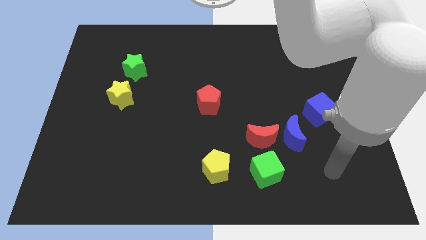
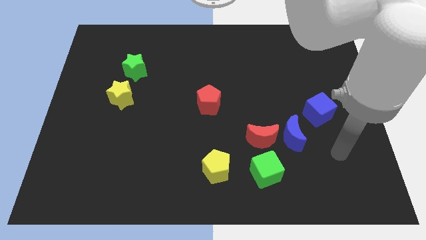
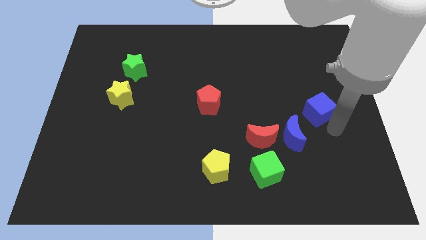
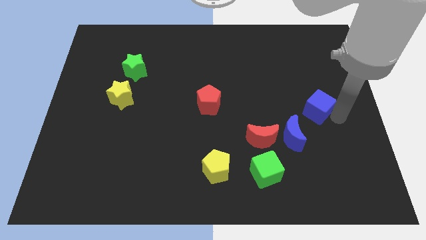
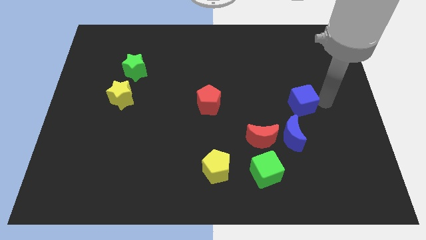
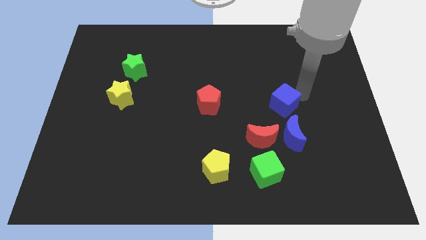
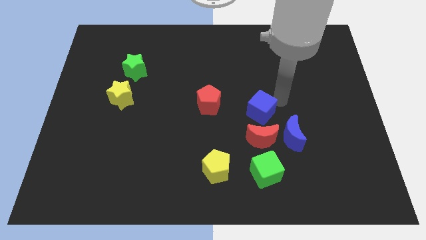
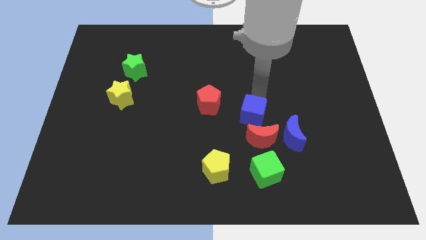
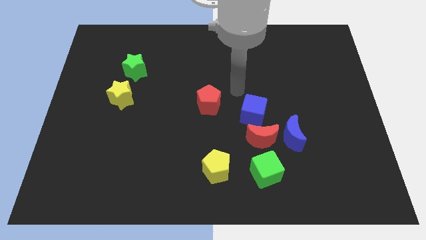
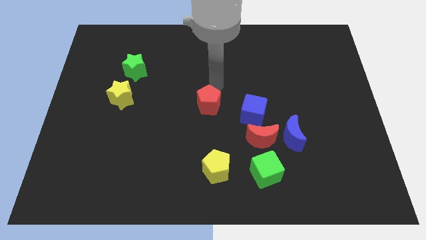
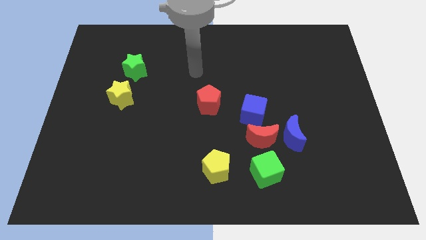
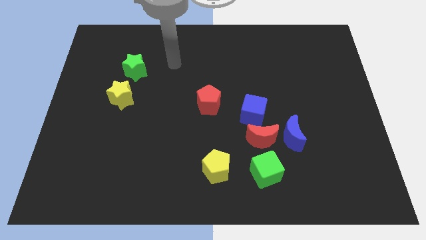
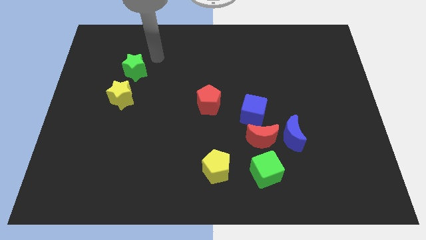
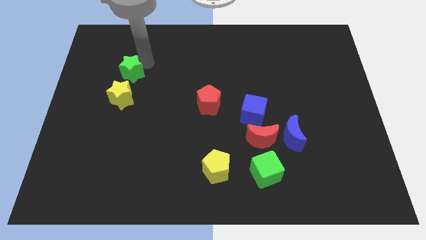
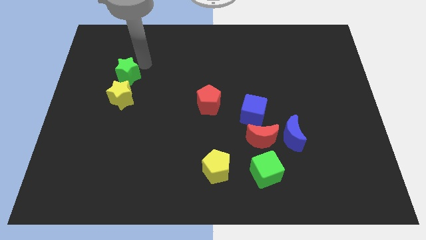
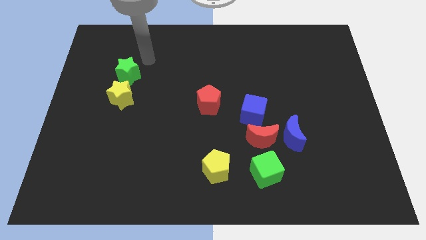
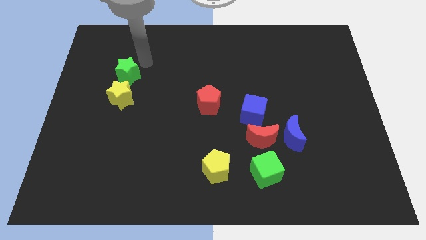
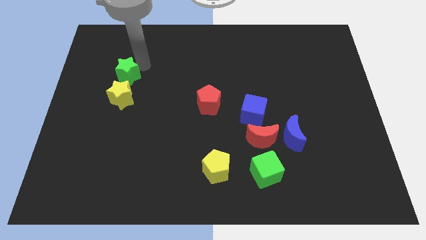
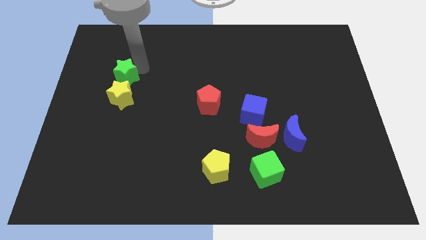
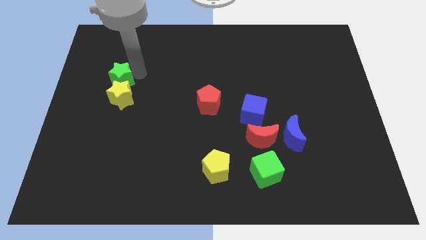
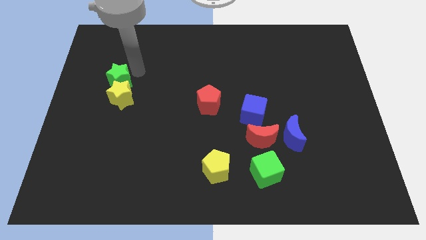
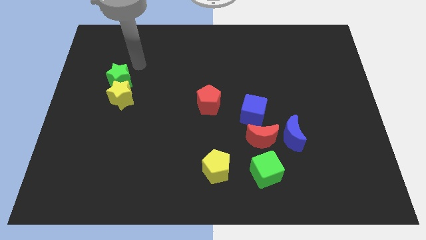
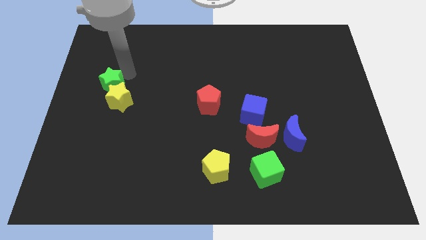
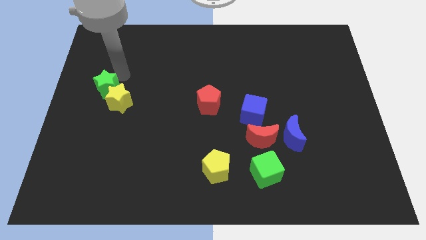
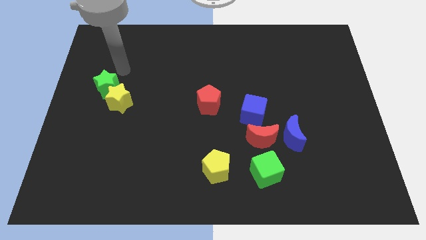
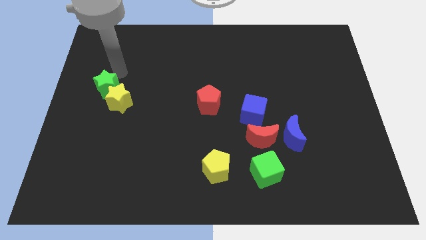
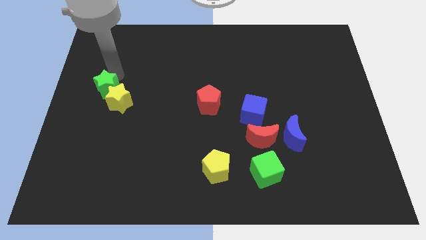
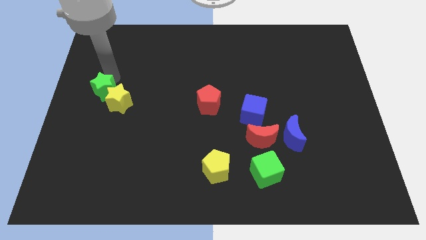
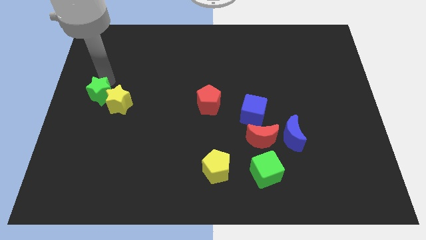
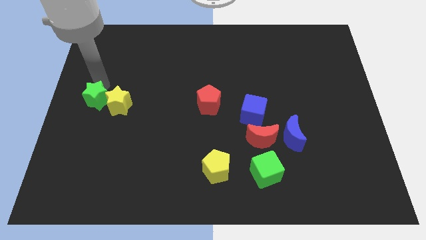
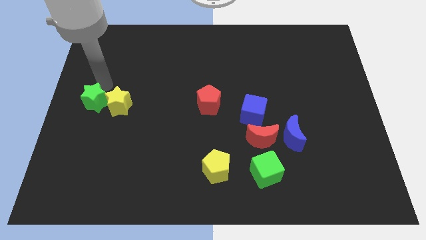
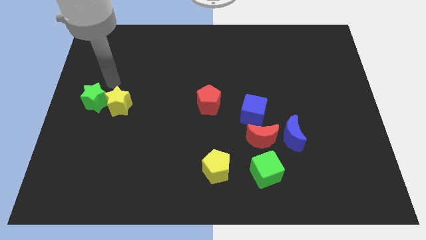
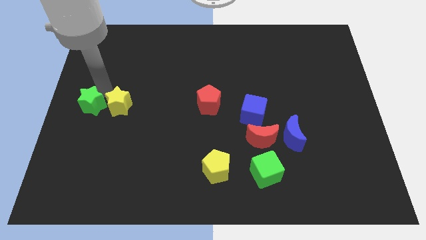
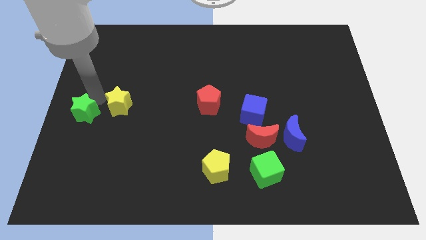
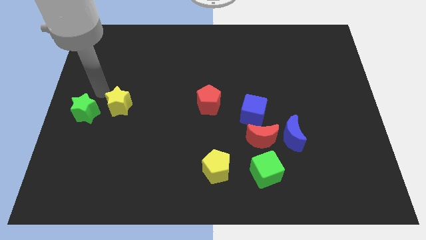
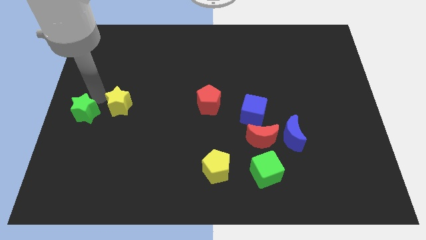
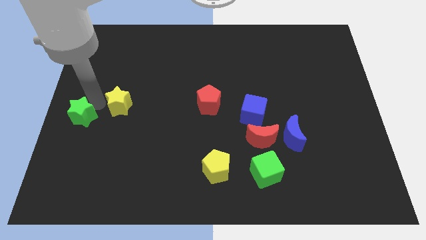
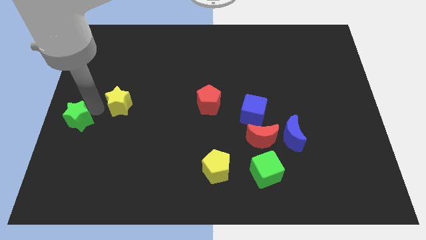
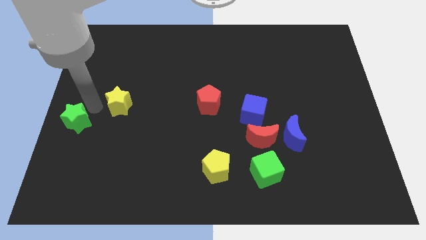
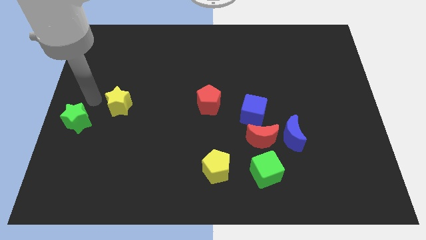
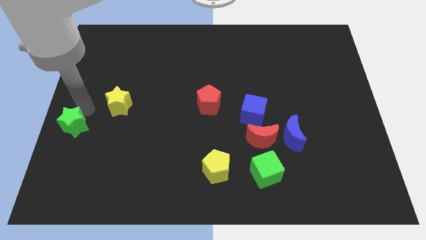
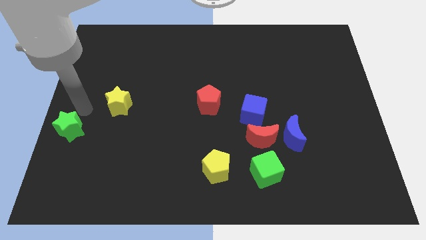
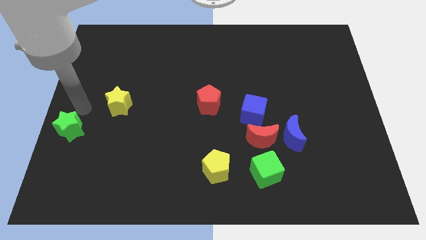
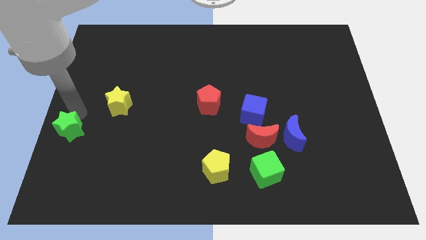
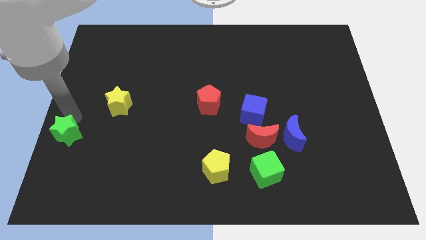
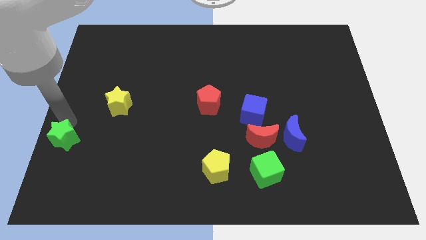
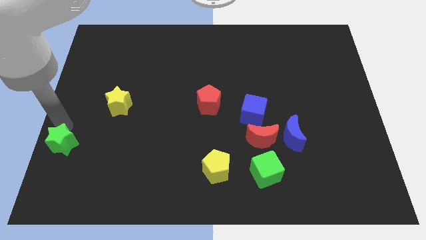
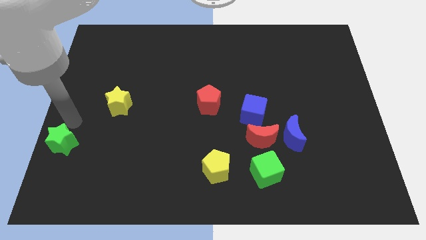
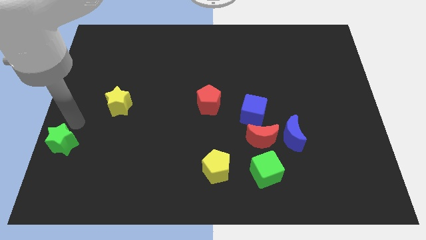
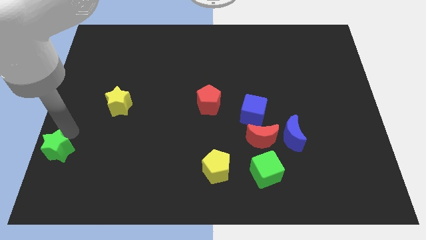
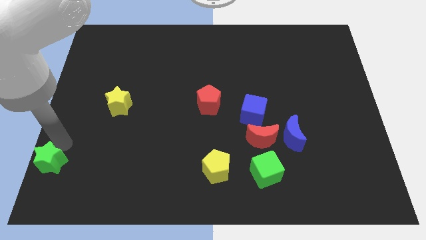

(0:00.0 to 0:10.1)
slide the green star to the lower left corner

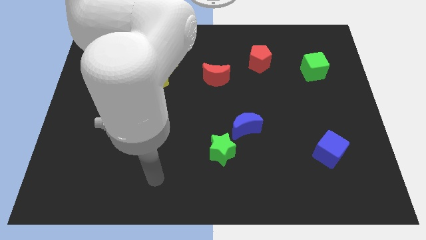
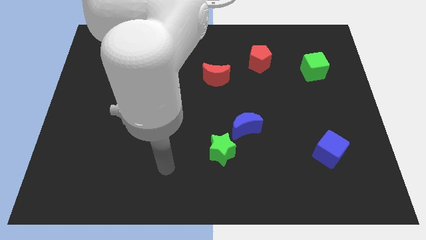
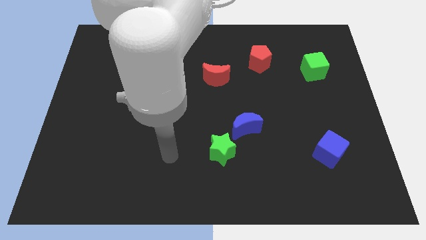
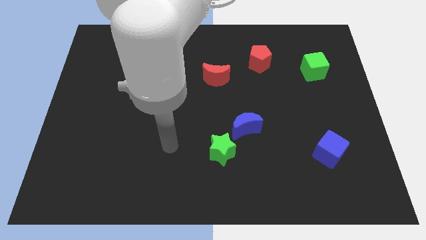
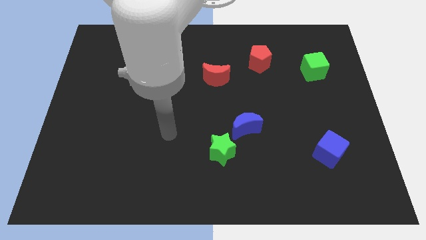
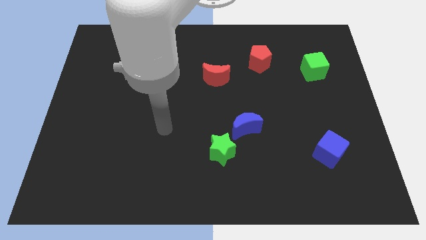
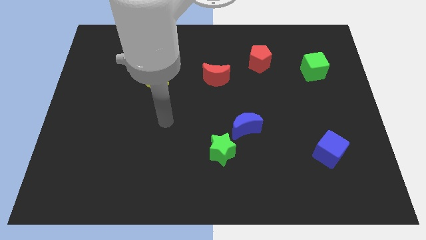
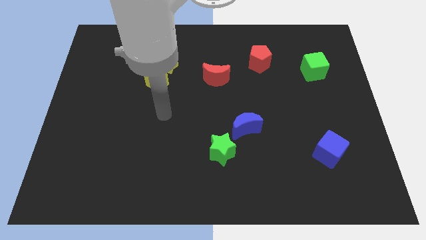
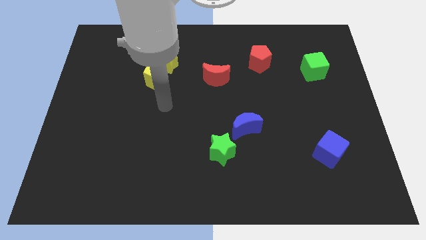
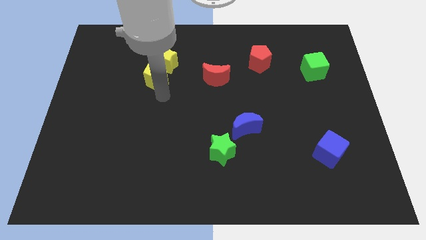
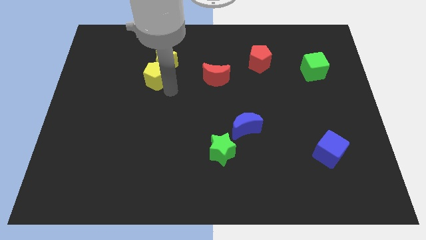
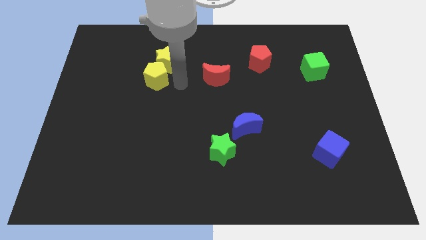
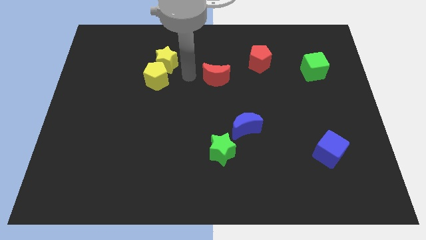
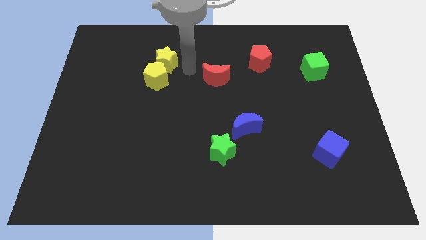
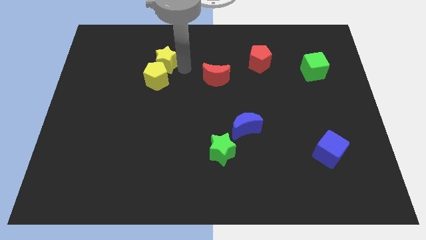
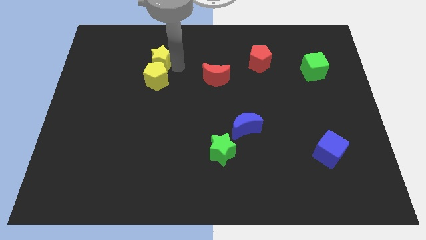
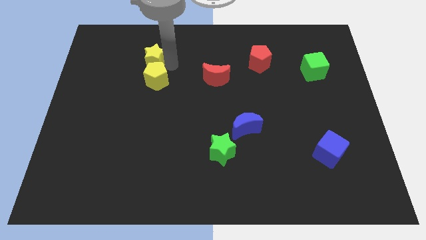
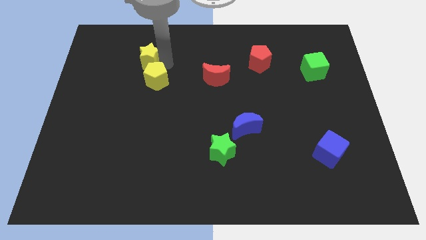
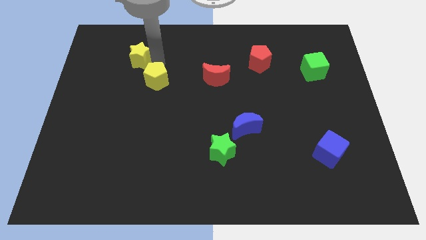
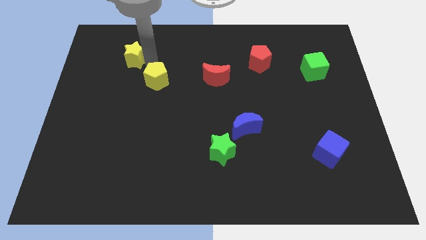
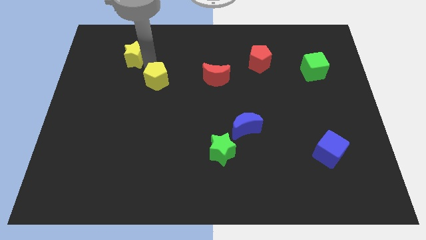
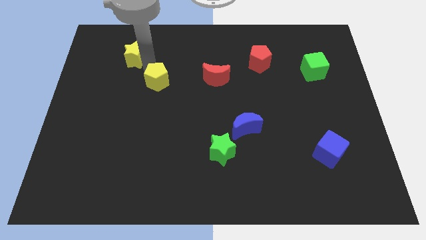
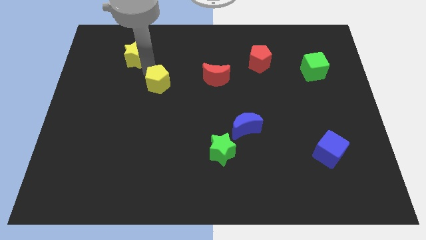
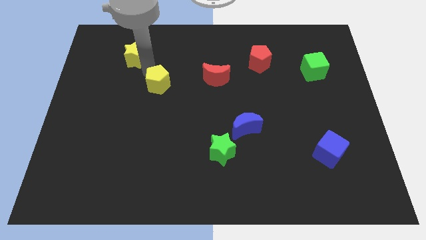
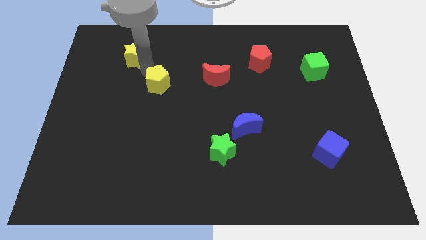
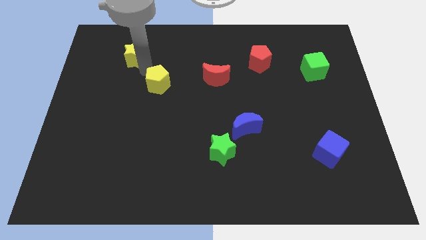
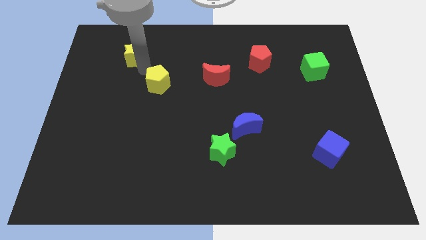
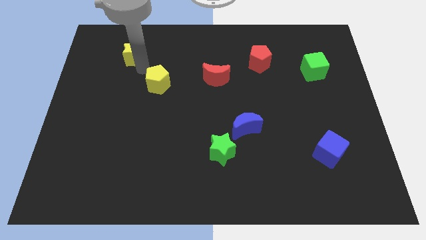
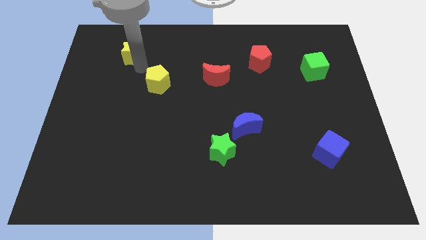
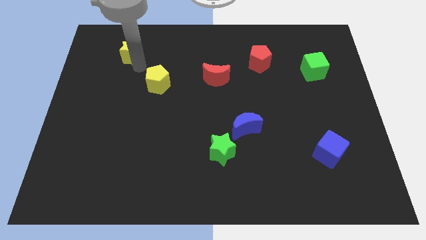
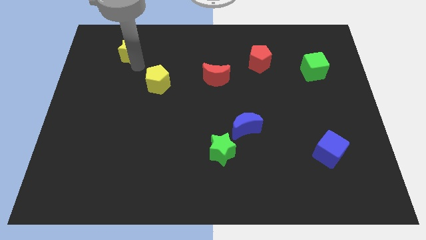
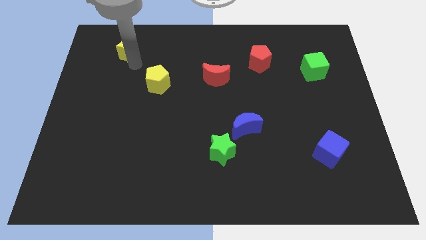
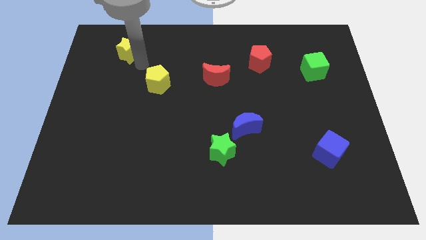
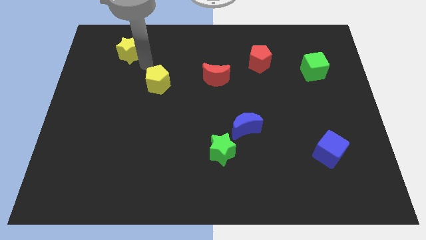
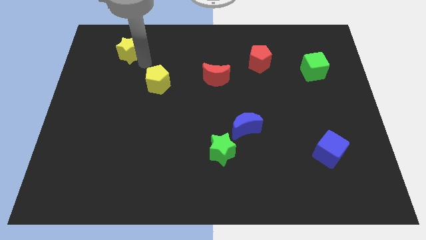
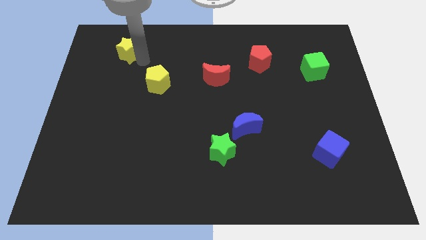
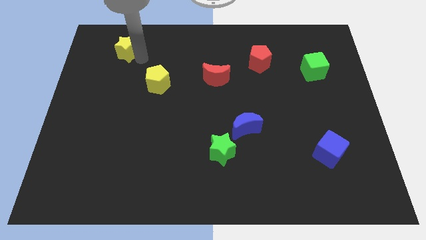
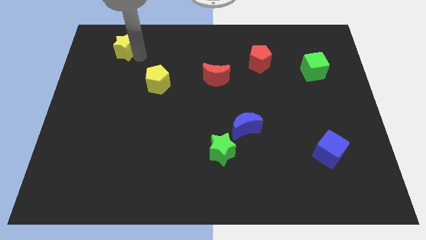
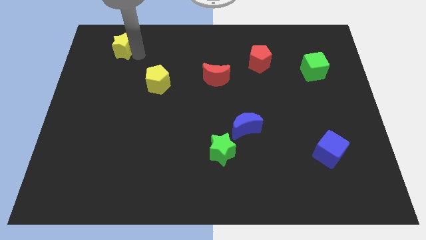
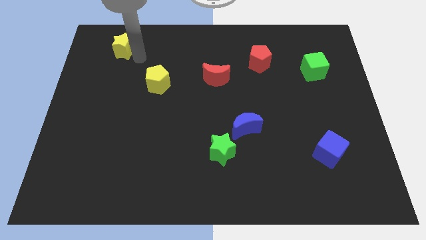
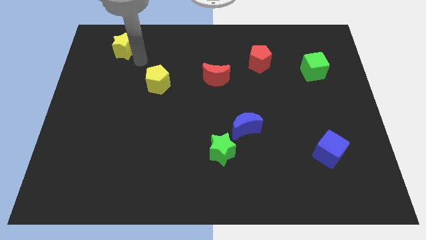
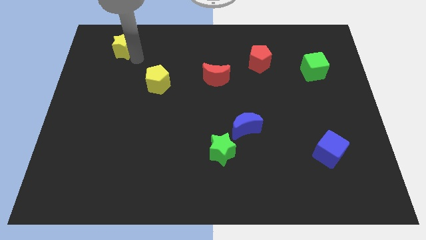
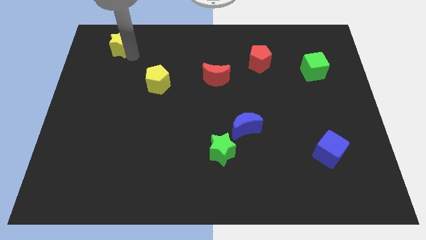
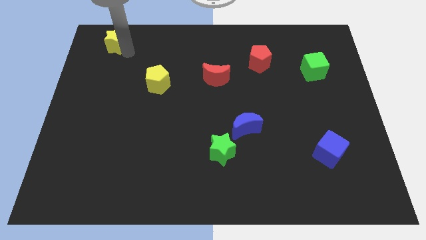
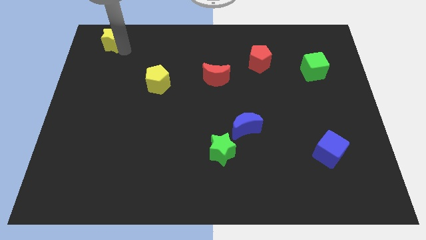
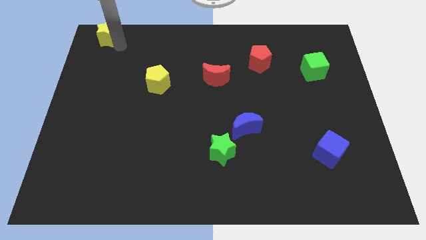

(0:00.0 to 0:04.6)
slide the yellow star to the top left of the board
